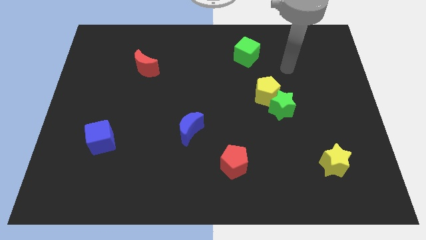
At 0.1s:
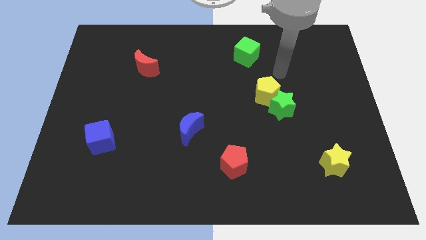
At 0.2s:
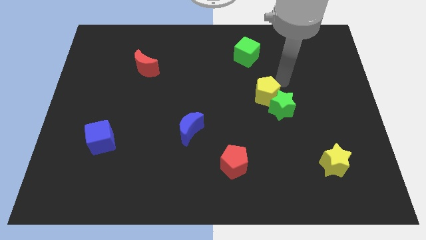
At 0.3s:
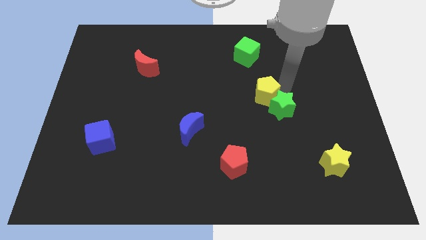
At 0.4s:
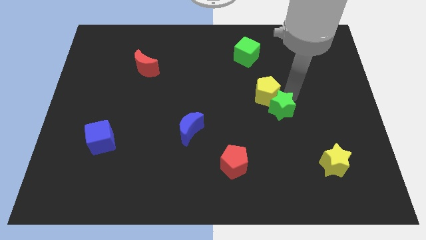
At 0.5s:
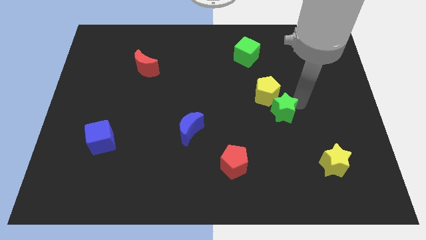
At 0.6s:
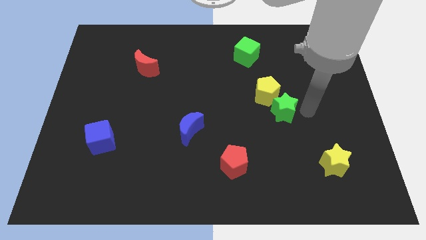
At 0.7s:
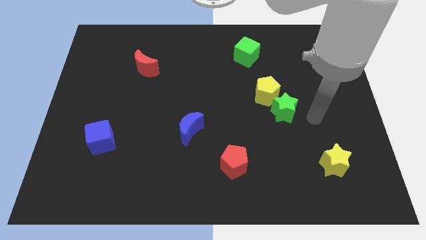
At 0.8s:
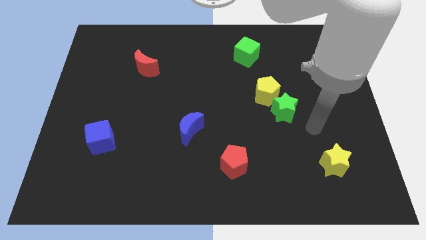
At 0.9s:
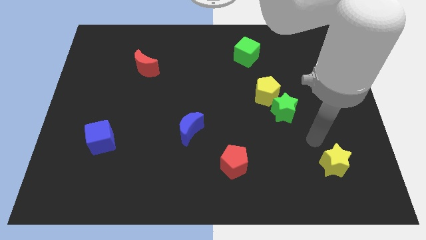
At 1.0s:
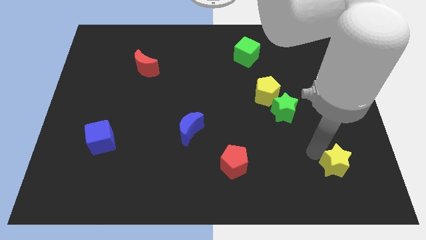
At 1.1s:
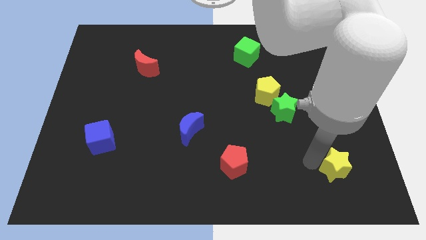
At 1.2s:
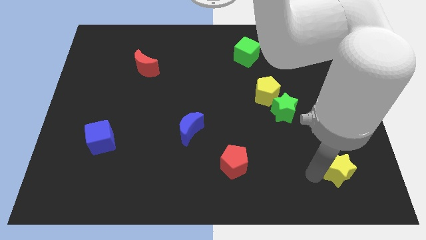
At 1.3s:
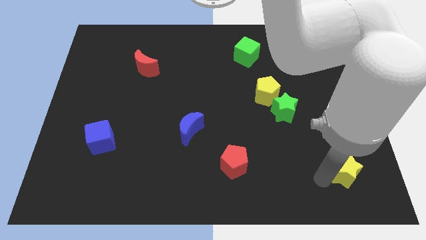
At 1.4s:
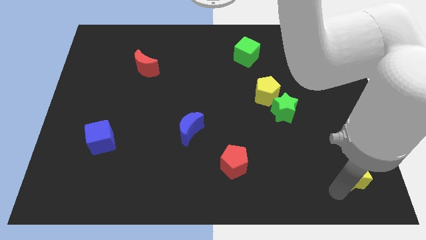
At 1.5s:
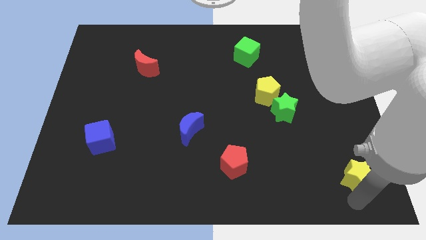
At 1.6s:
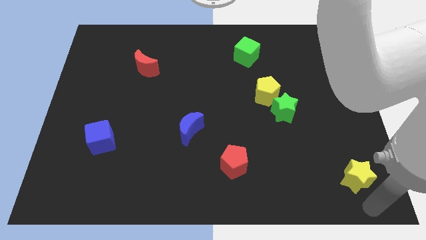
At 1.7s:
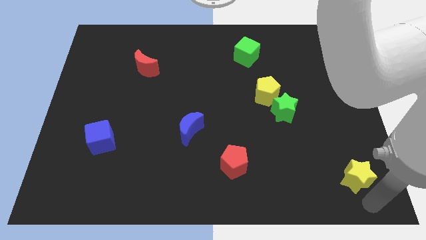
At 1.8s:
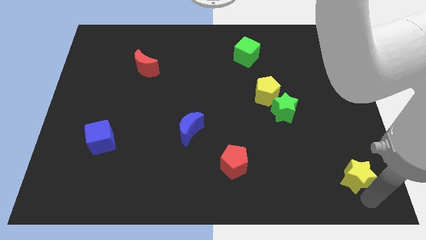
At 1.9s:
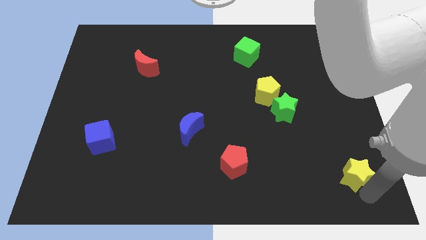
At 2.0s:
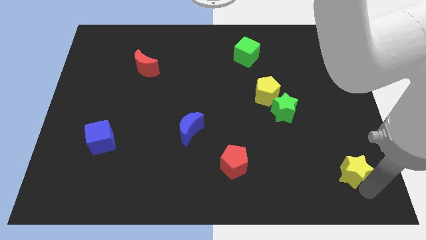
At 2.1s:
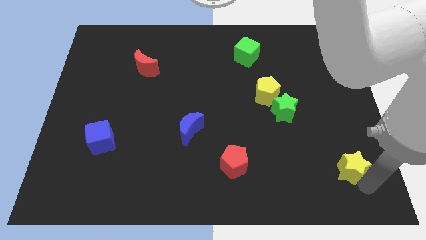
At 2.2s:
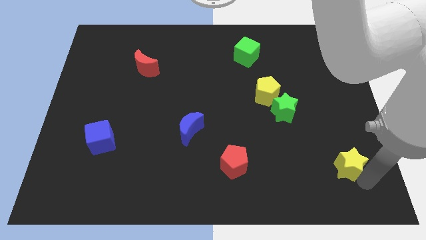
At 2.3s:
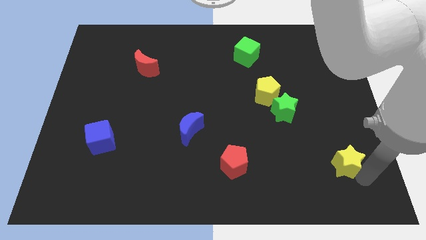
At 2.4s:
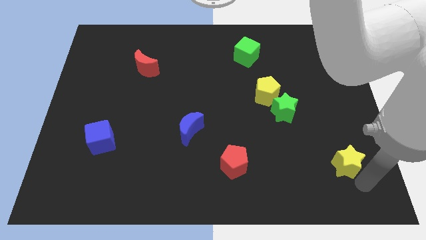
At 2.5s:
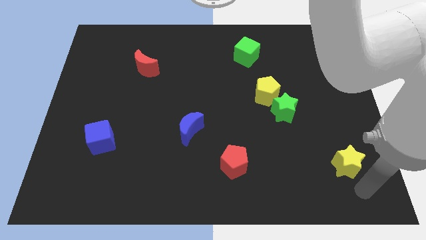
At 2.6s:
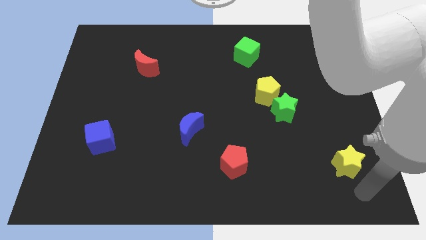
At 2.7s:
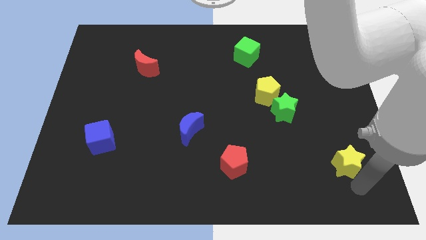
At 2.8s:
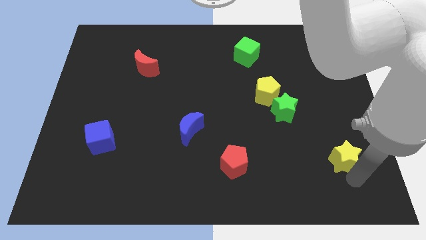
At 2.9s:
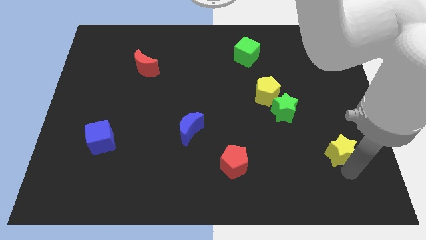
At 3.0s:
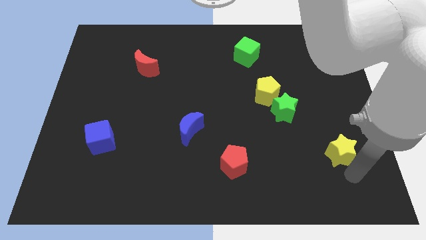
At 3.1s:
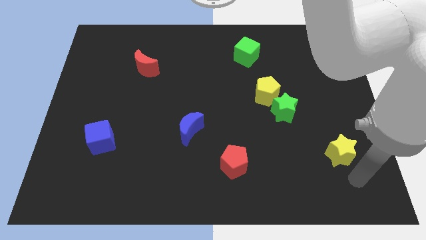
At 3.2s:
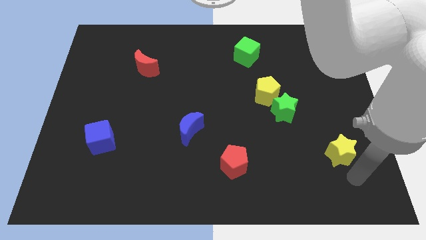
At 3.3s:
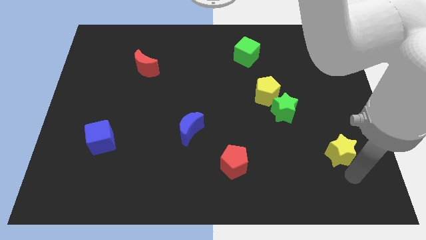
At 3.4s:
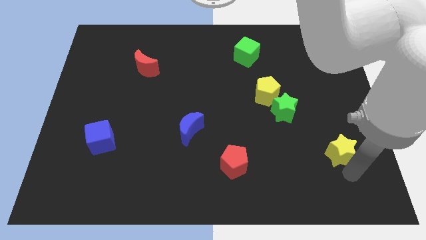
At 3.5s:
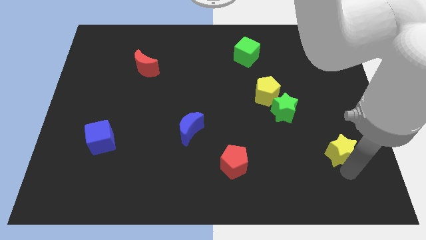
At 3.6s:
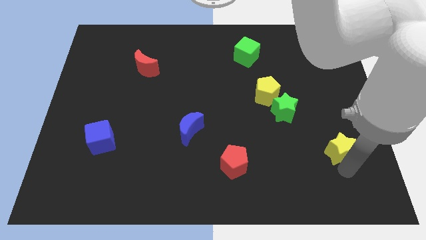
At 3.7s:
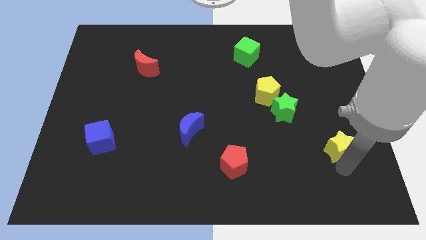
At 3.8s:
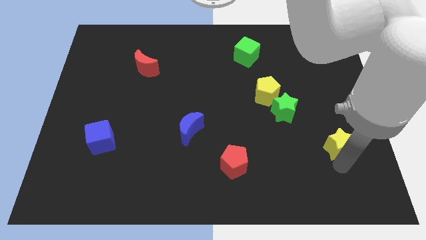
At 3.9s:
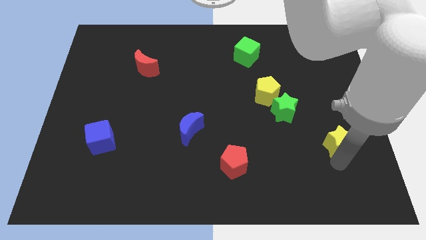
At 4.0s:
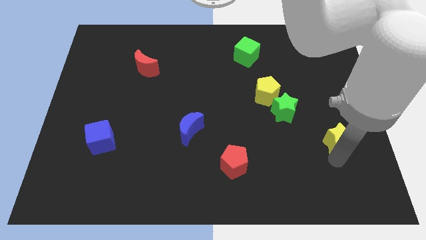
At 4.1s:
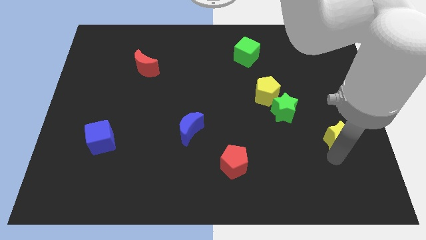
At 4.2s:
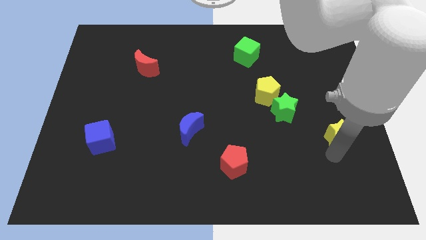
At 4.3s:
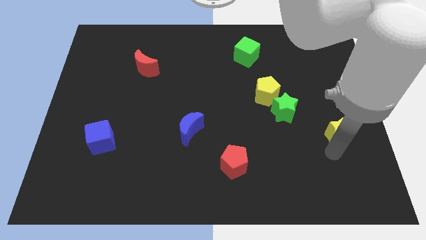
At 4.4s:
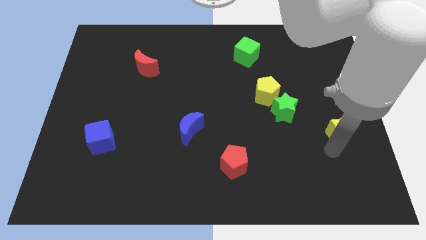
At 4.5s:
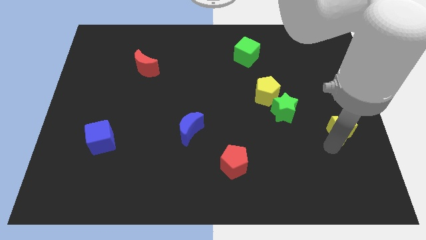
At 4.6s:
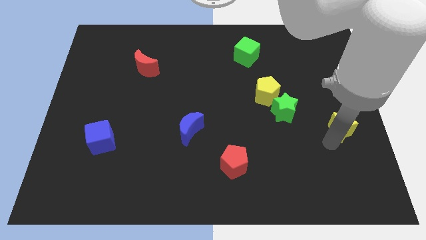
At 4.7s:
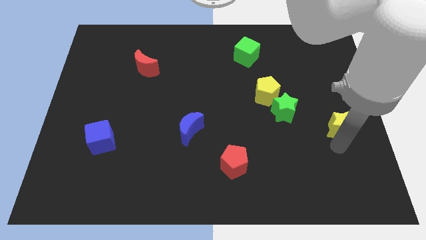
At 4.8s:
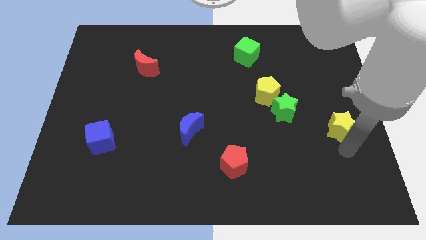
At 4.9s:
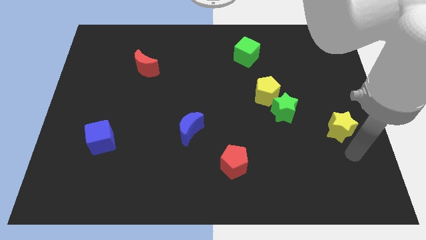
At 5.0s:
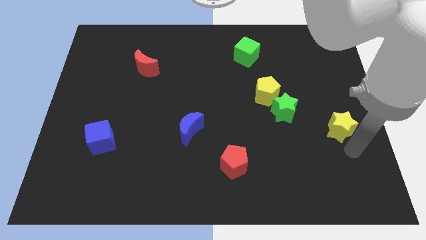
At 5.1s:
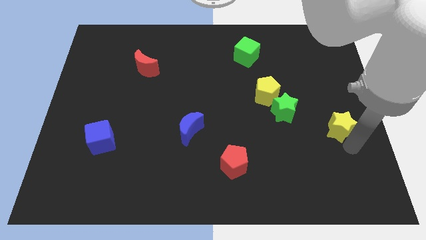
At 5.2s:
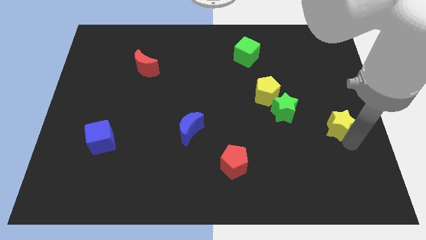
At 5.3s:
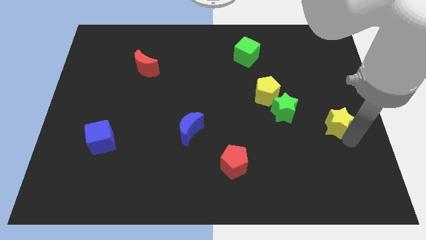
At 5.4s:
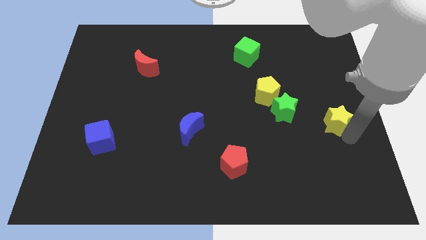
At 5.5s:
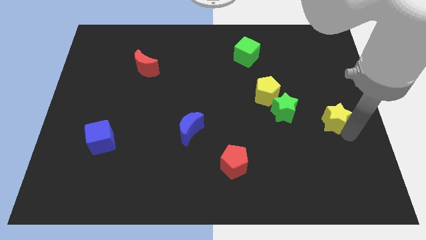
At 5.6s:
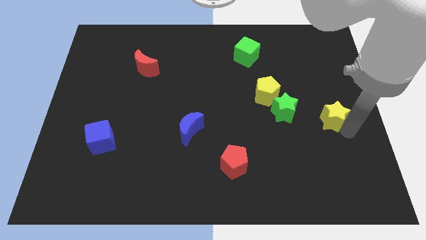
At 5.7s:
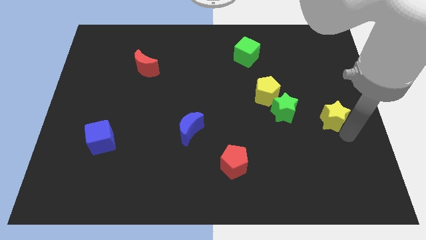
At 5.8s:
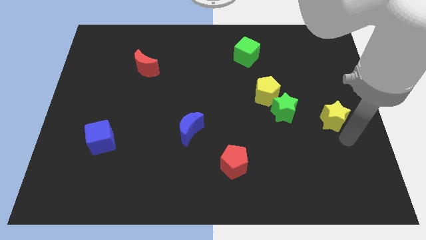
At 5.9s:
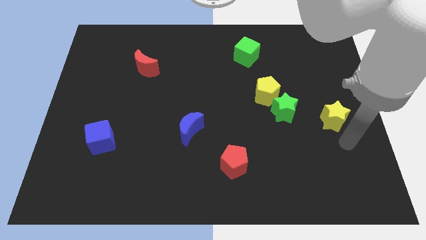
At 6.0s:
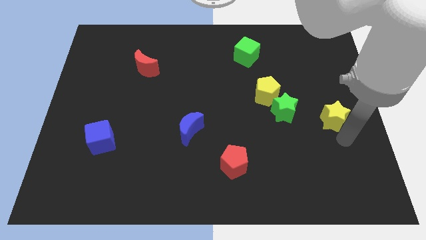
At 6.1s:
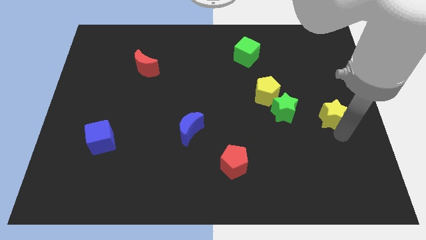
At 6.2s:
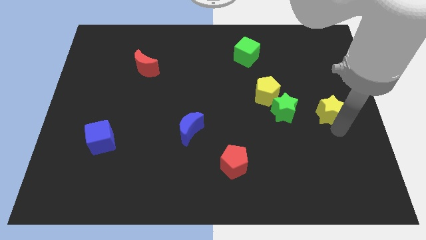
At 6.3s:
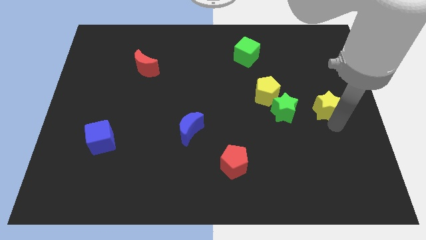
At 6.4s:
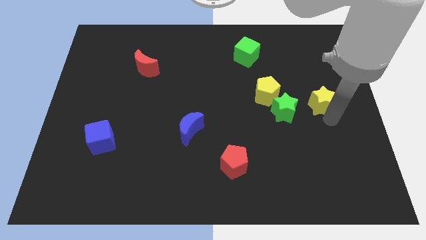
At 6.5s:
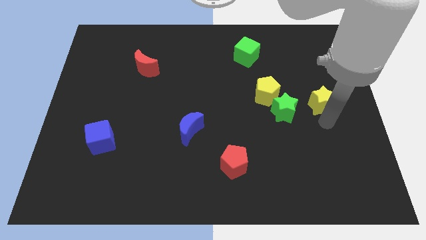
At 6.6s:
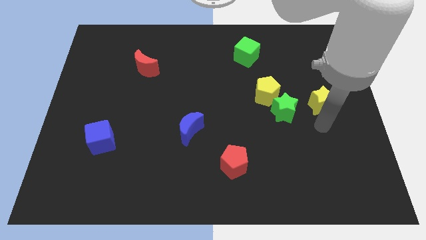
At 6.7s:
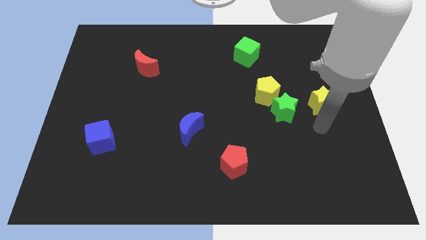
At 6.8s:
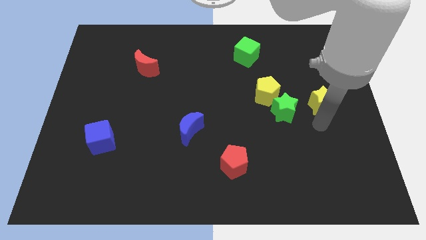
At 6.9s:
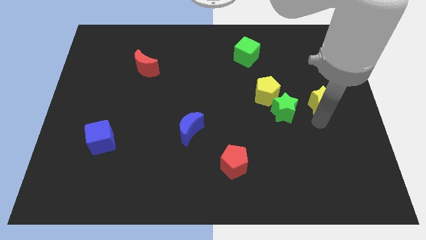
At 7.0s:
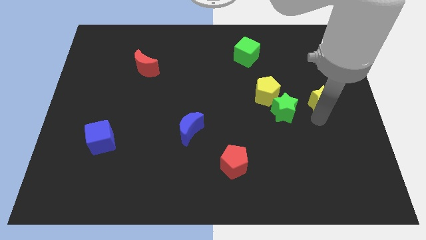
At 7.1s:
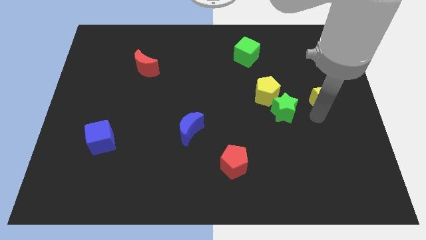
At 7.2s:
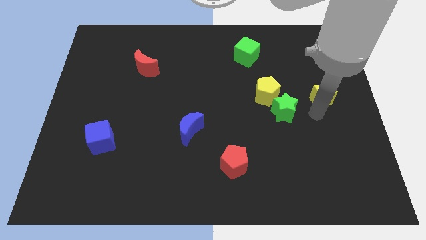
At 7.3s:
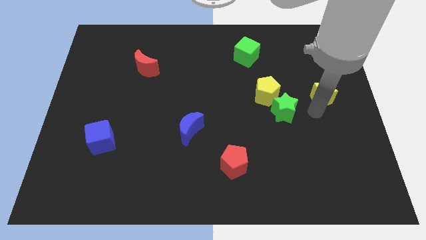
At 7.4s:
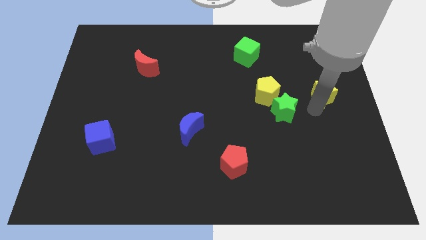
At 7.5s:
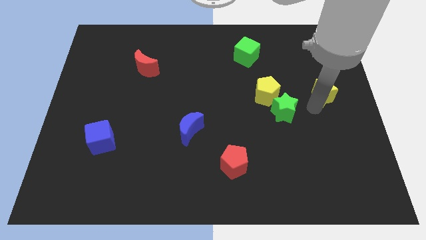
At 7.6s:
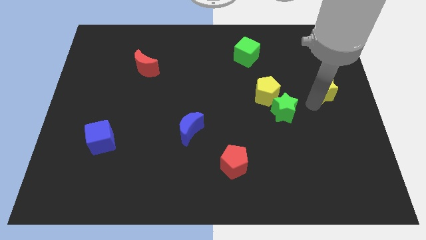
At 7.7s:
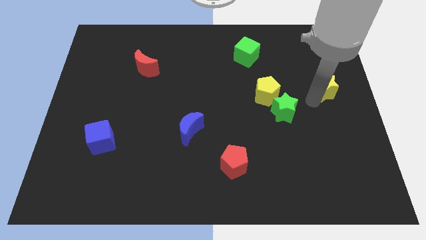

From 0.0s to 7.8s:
push the yellow star up

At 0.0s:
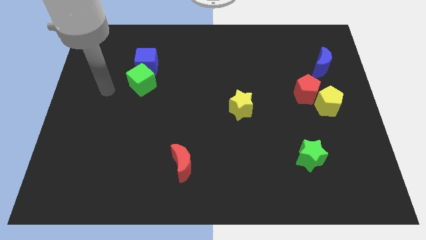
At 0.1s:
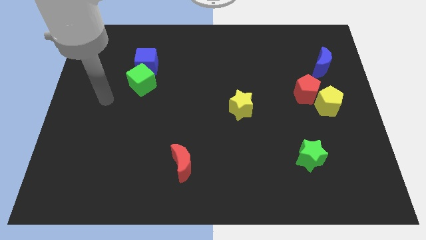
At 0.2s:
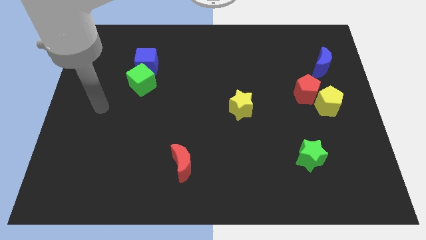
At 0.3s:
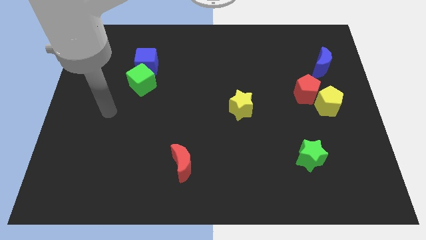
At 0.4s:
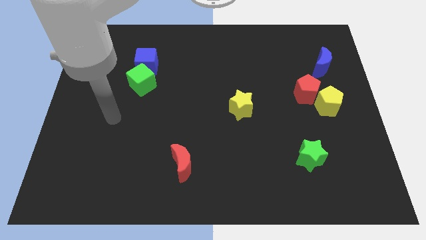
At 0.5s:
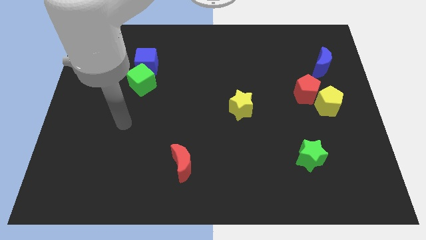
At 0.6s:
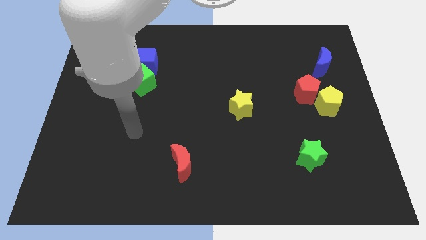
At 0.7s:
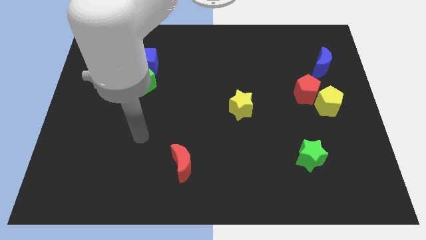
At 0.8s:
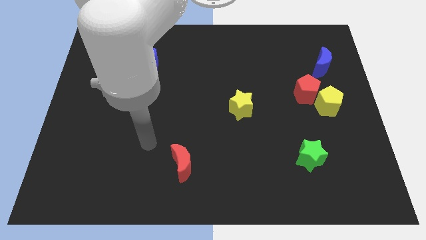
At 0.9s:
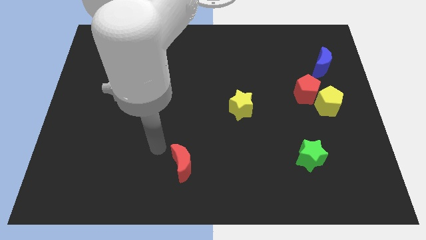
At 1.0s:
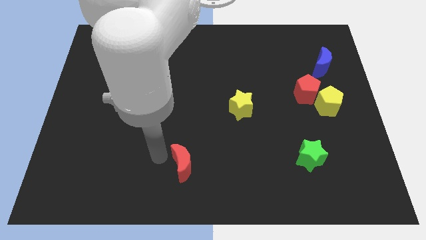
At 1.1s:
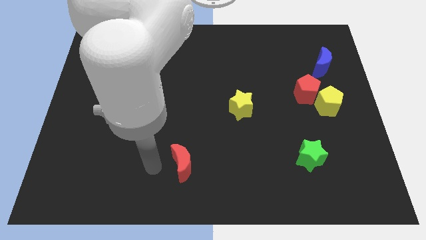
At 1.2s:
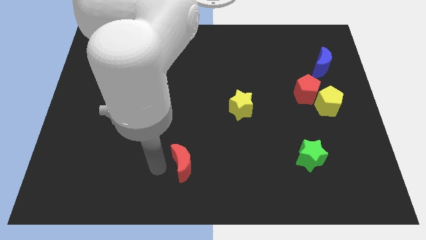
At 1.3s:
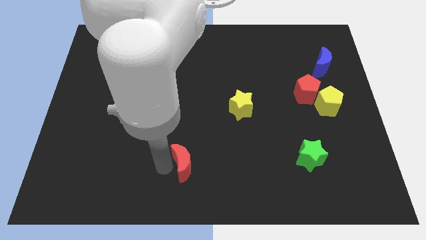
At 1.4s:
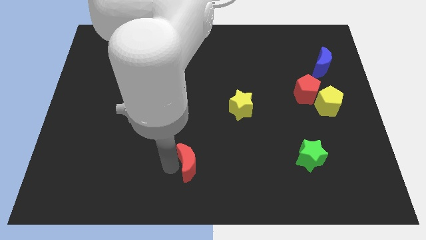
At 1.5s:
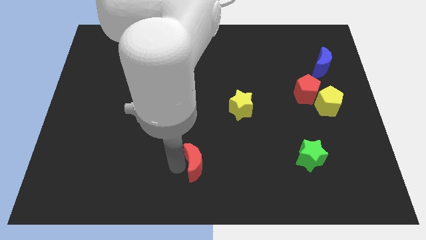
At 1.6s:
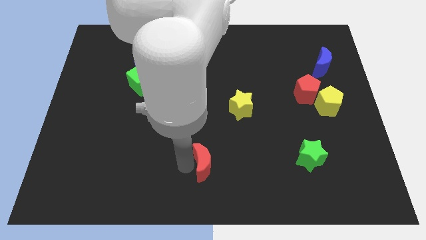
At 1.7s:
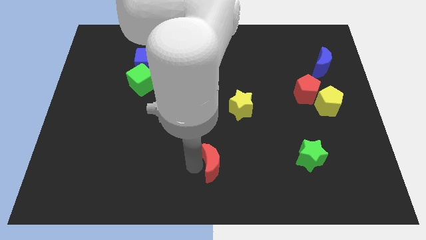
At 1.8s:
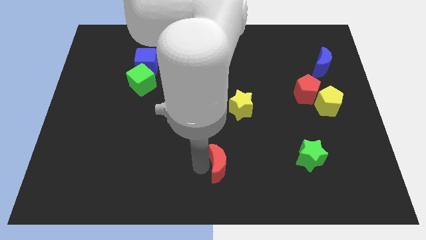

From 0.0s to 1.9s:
slightly slide the red moon to the right
